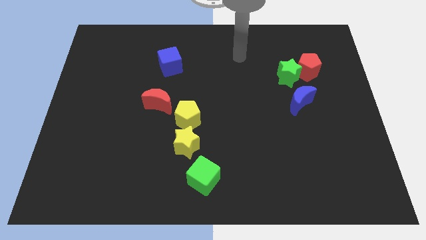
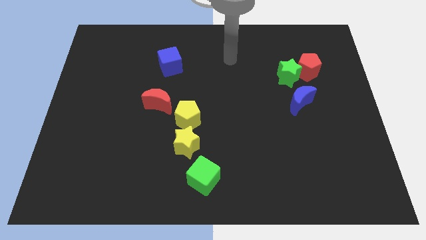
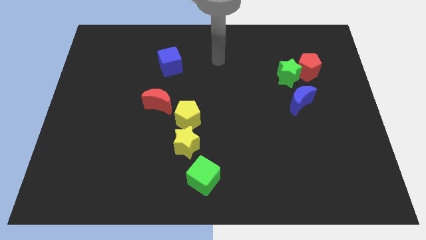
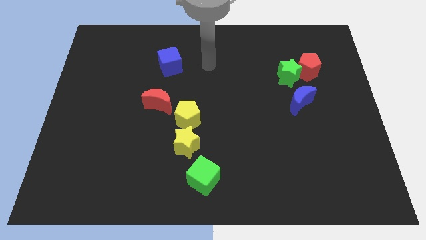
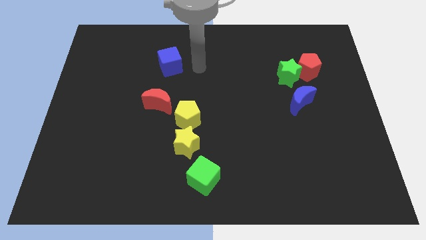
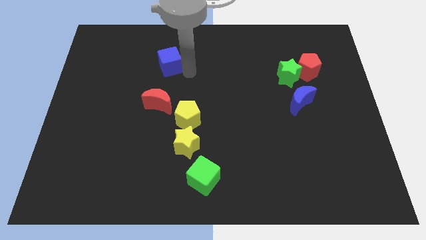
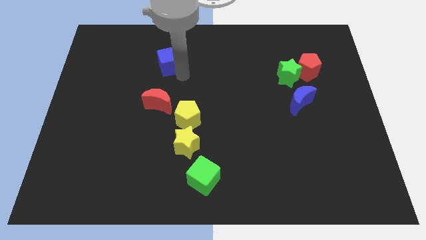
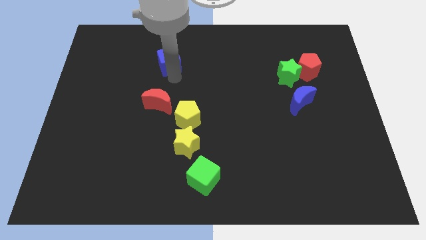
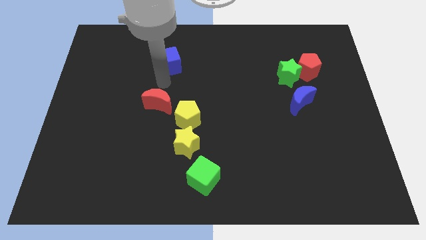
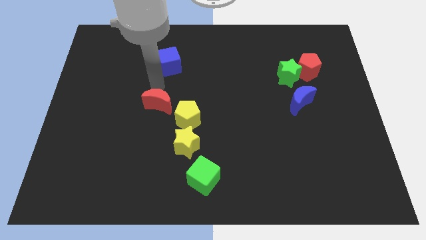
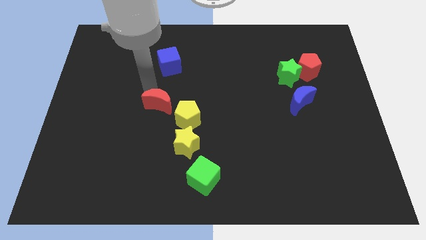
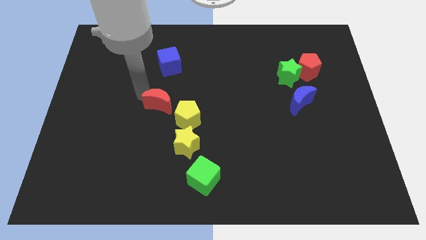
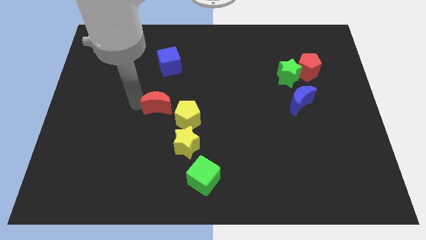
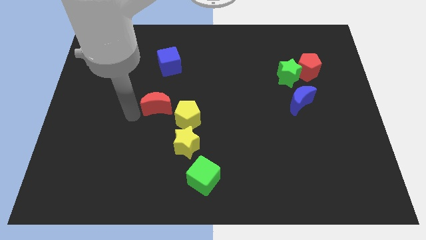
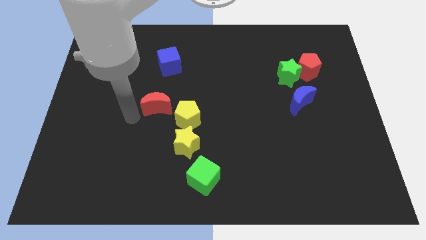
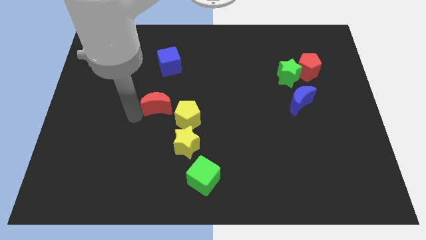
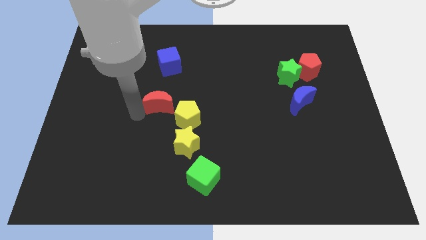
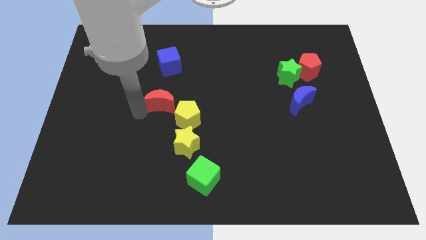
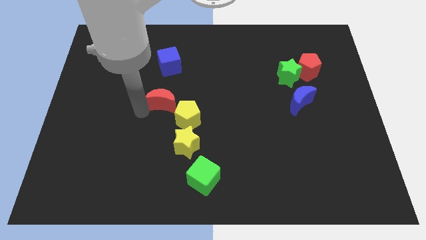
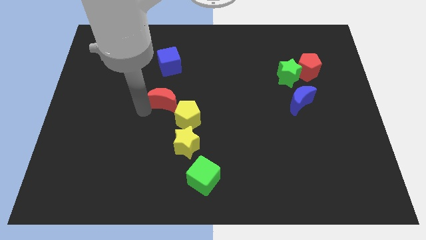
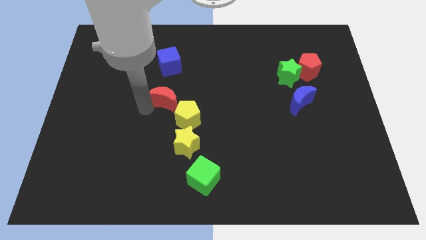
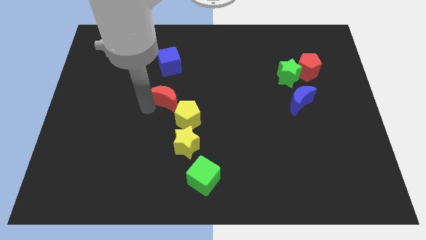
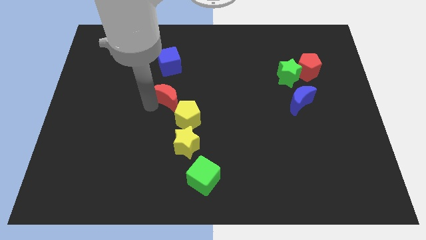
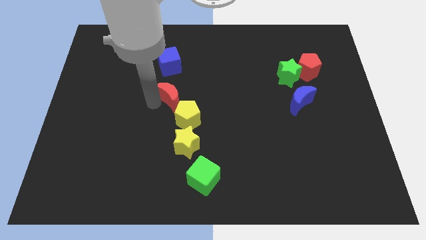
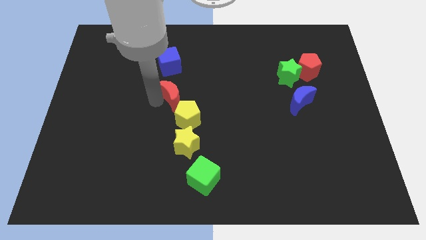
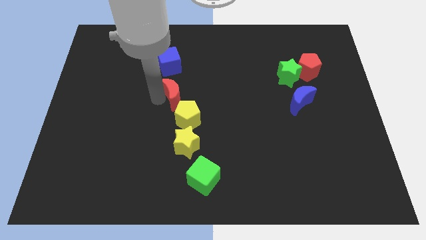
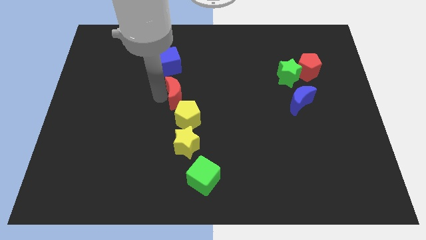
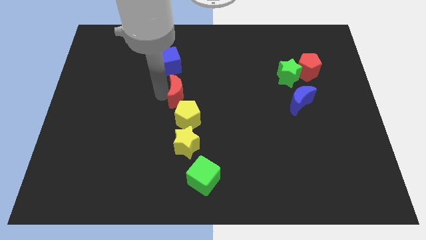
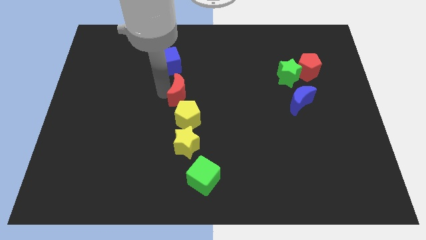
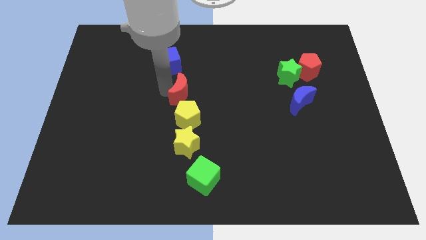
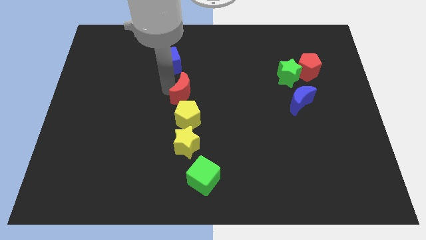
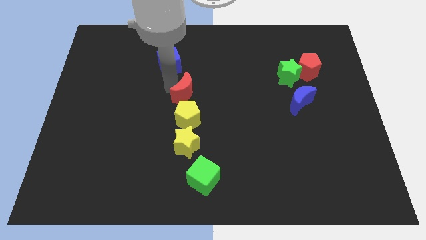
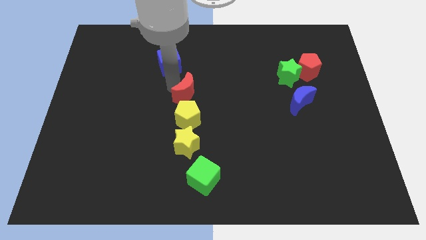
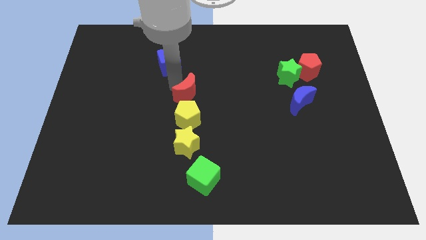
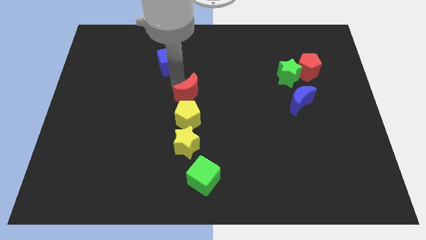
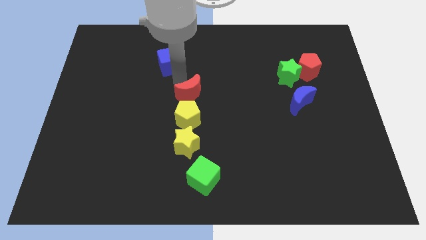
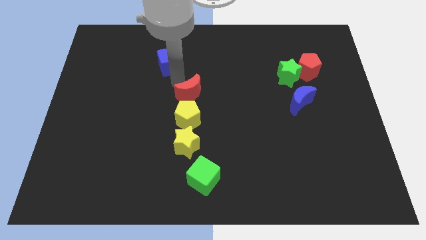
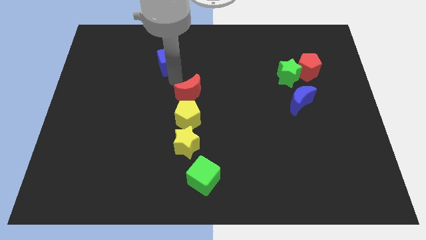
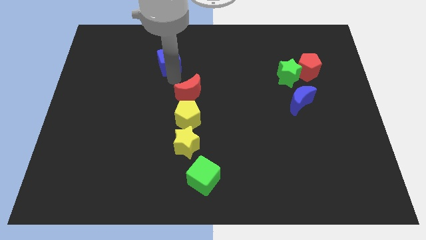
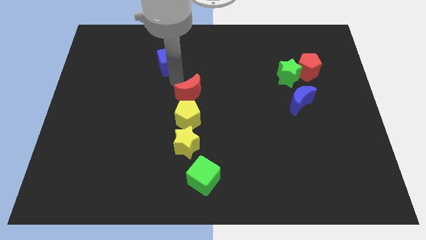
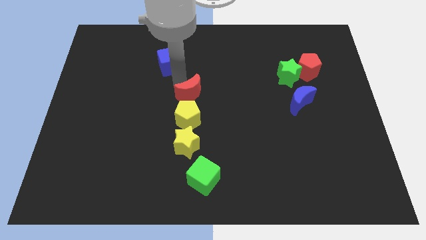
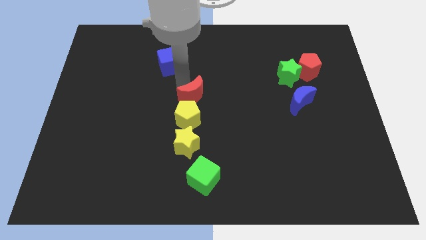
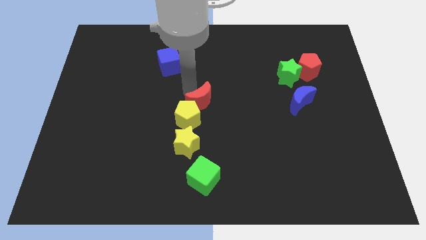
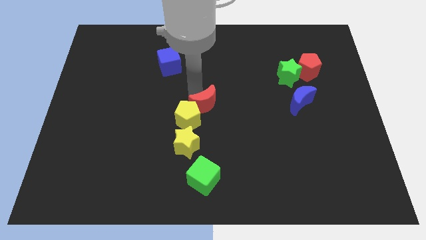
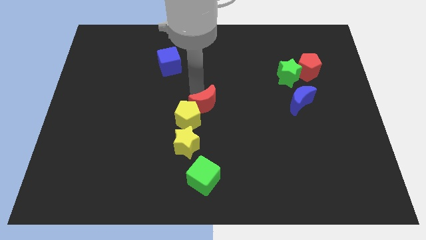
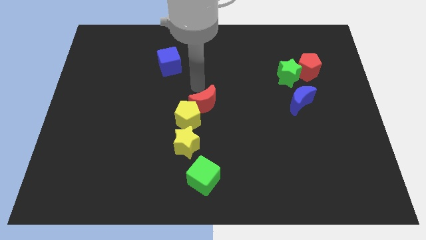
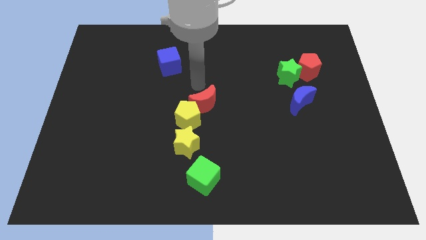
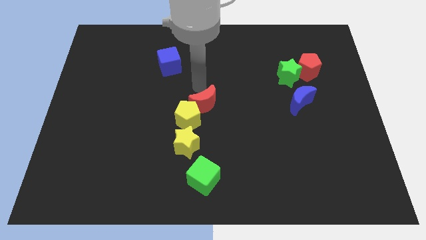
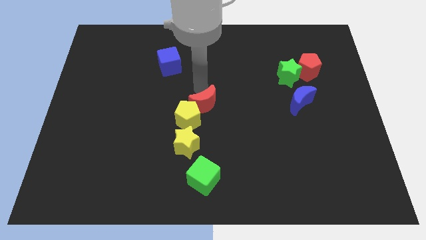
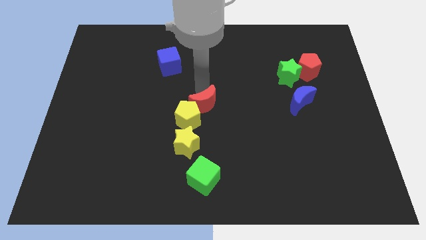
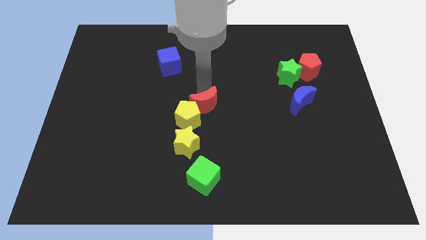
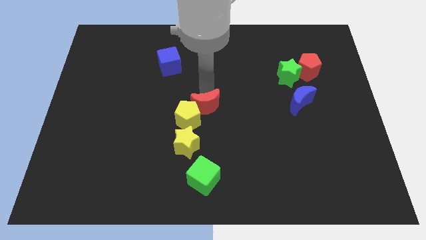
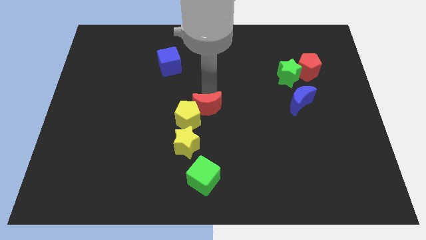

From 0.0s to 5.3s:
move the red moon downwards and right slightly

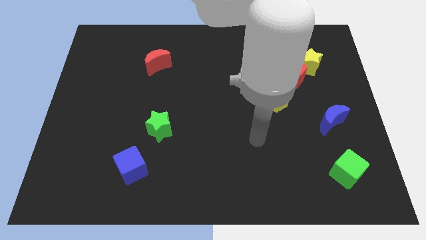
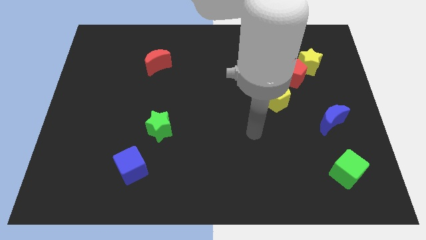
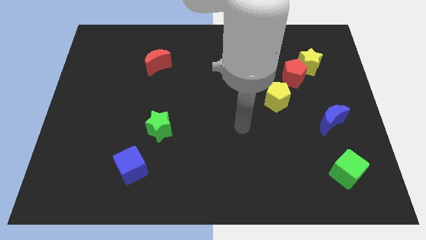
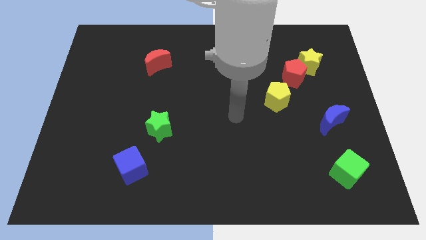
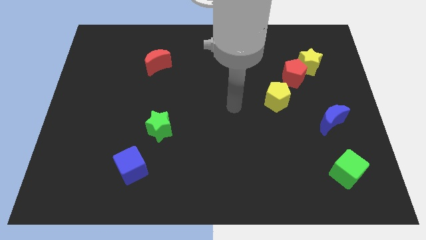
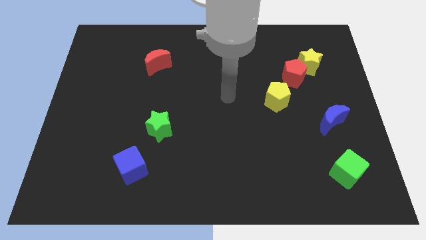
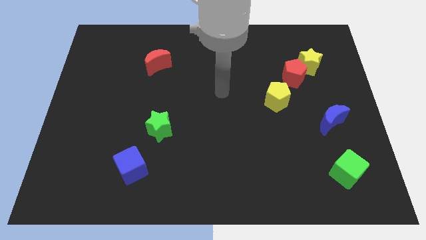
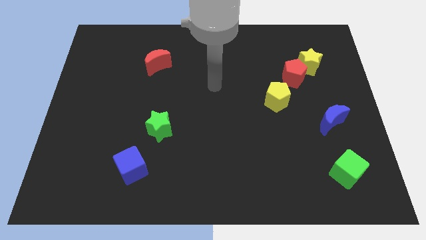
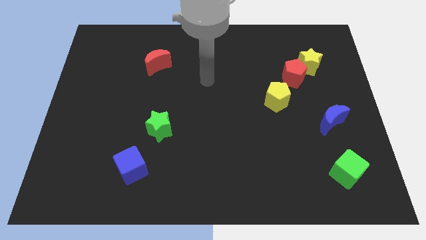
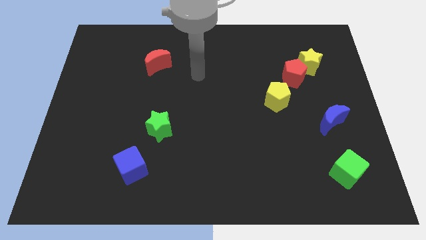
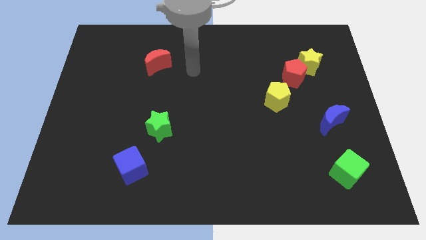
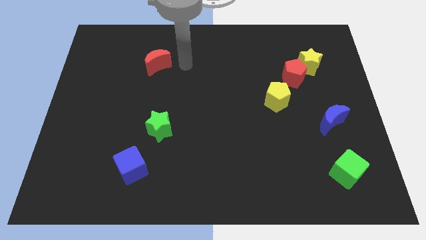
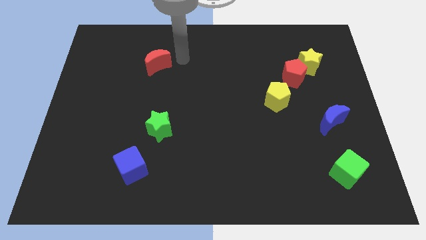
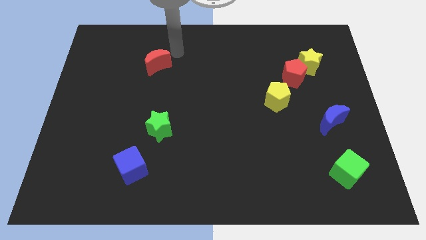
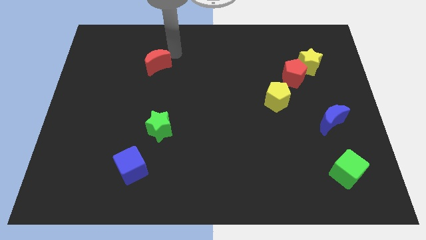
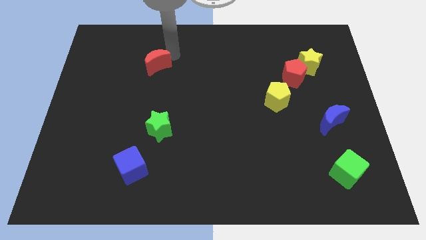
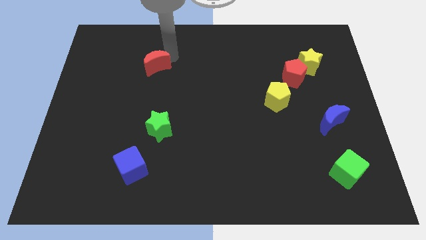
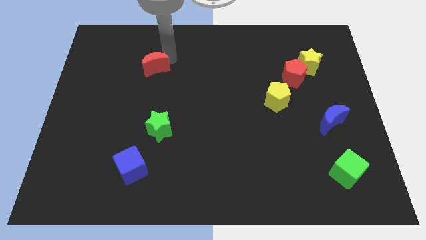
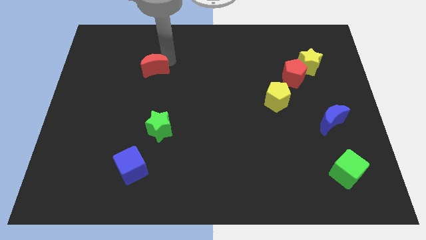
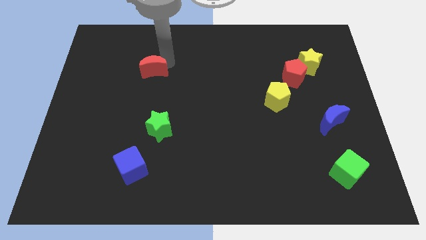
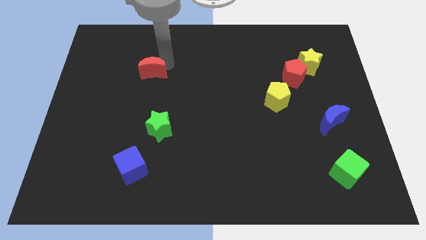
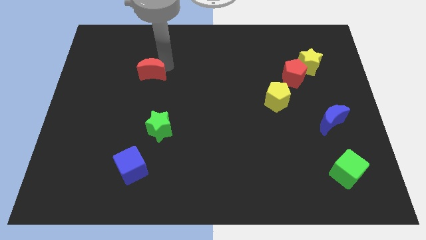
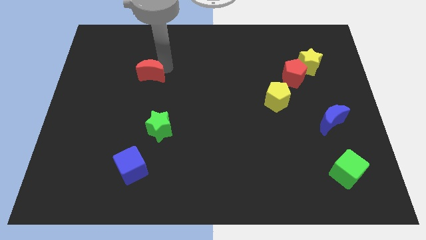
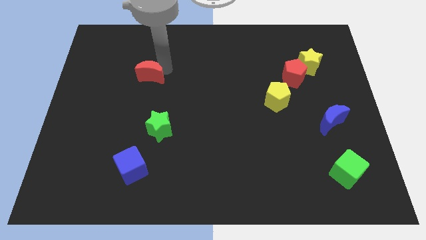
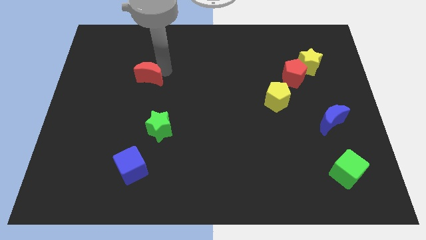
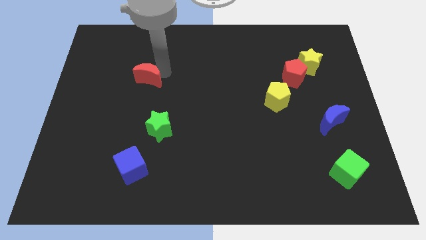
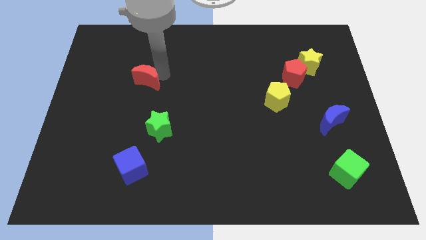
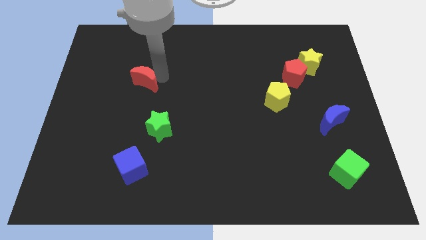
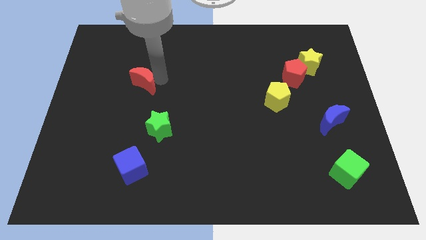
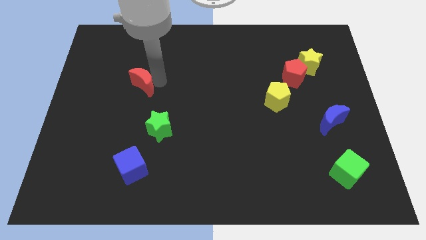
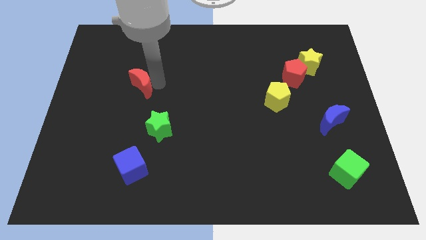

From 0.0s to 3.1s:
slide the red moon somewhat diagonally down and to the left

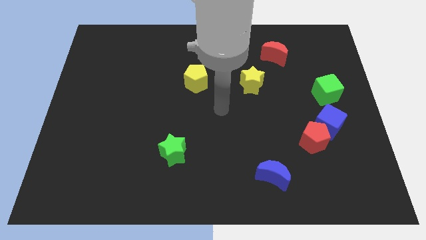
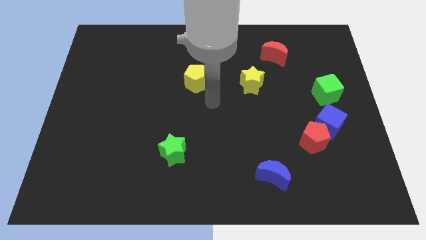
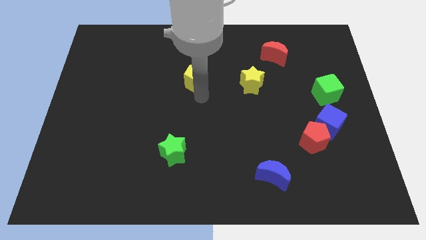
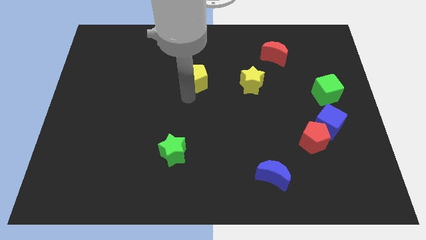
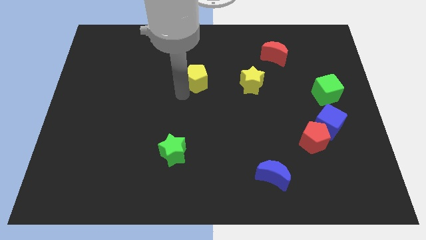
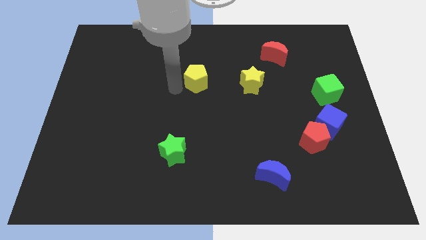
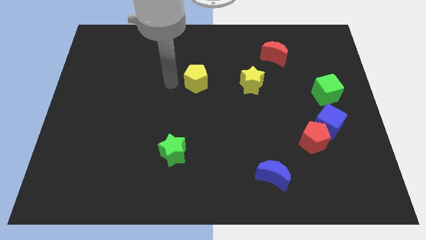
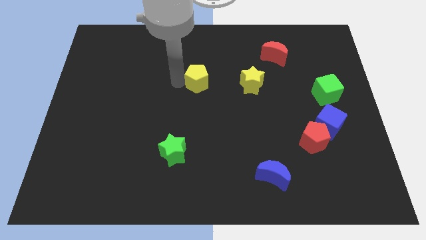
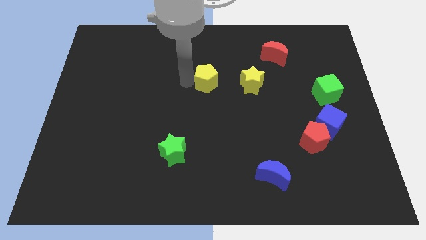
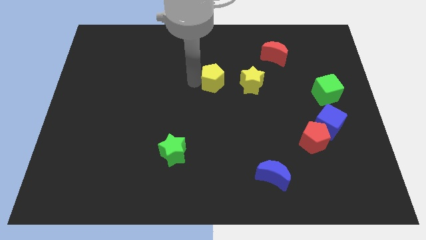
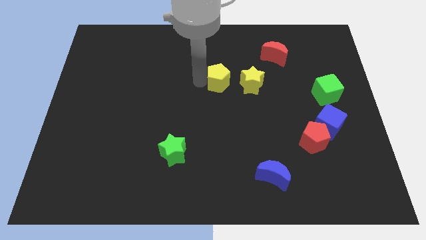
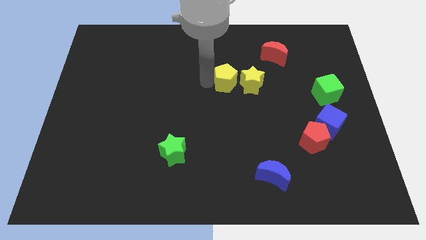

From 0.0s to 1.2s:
move the yellow pentagon somewhat to the right
